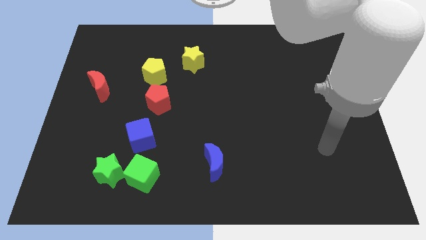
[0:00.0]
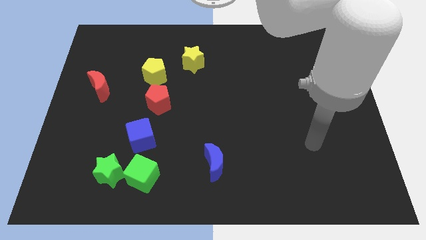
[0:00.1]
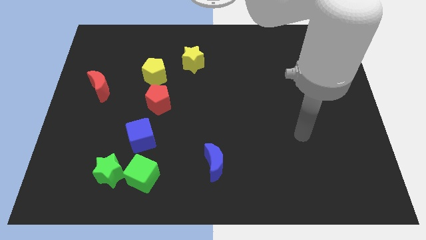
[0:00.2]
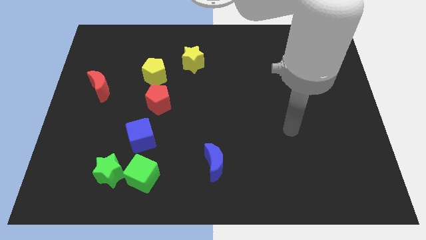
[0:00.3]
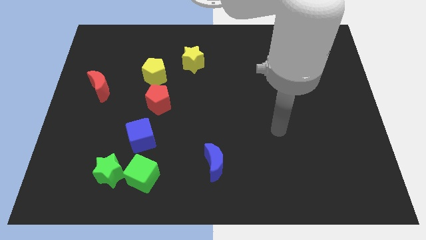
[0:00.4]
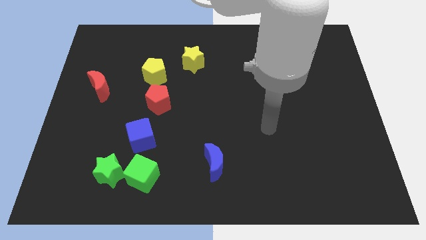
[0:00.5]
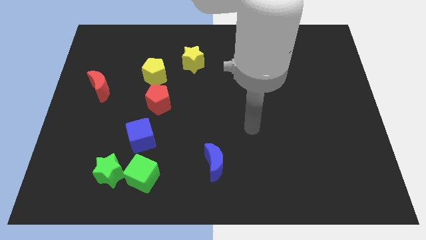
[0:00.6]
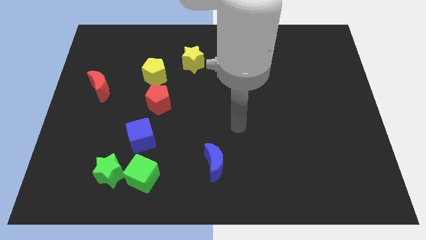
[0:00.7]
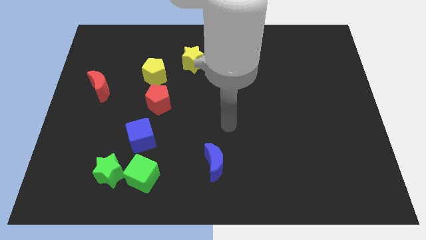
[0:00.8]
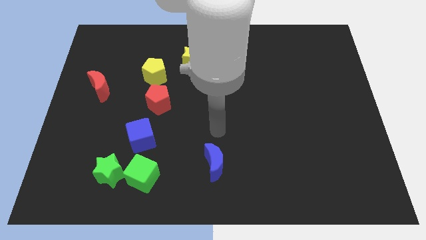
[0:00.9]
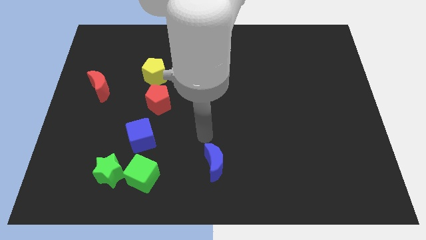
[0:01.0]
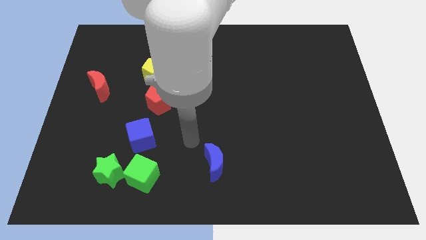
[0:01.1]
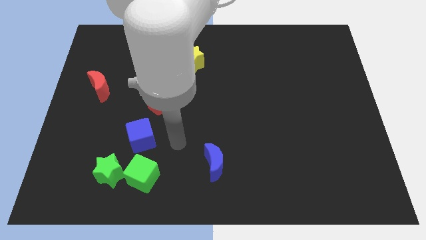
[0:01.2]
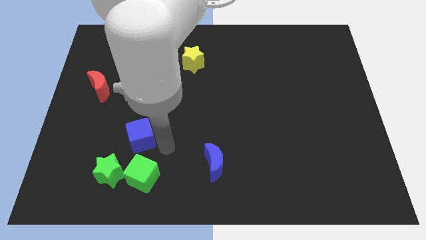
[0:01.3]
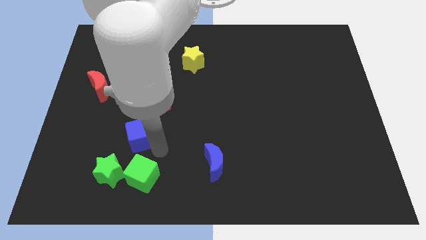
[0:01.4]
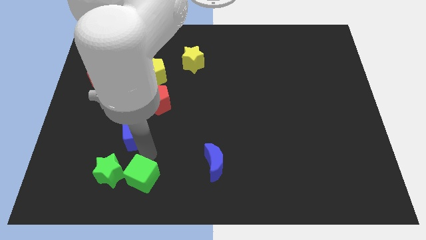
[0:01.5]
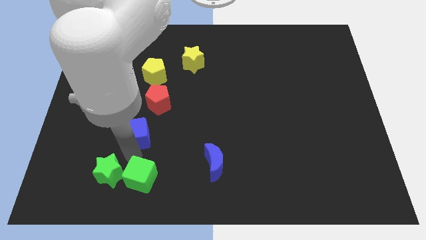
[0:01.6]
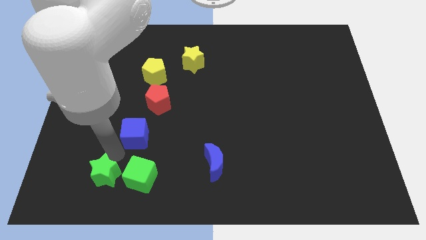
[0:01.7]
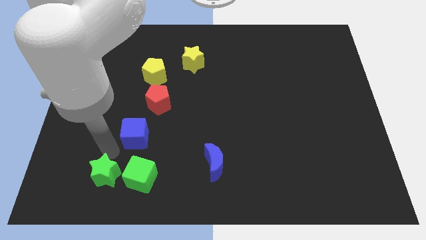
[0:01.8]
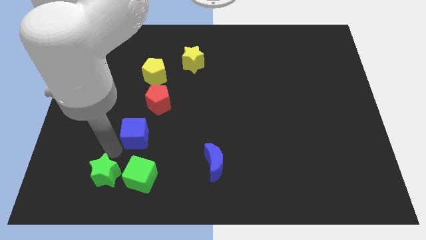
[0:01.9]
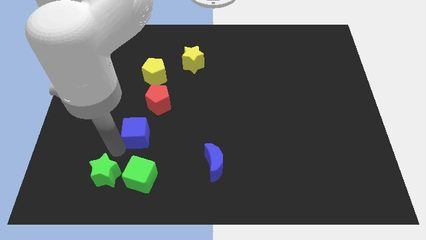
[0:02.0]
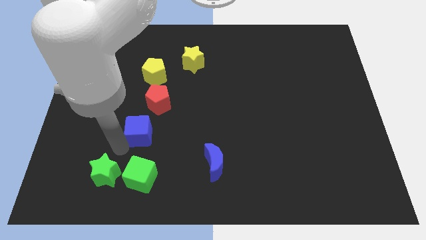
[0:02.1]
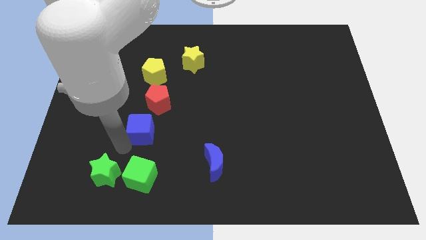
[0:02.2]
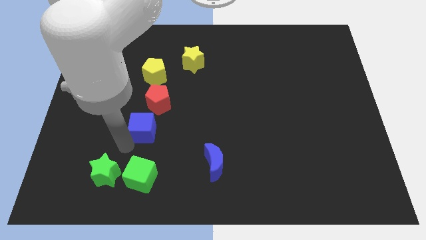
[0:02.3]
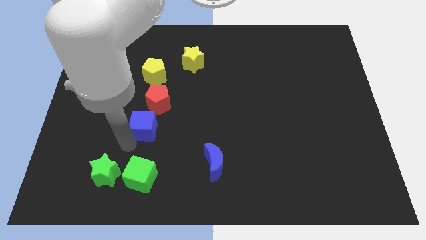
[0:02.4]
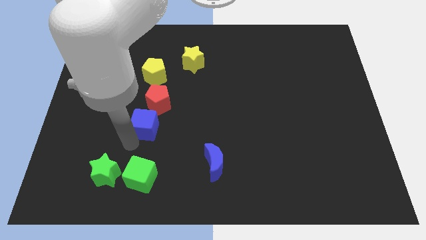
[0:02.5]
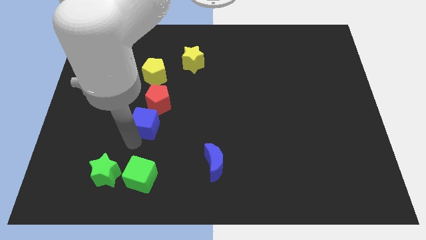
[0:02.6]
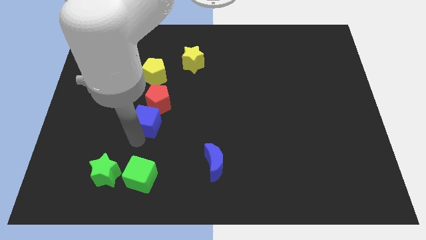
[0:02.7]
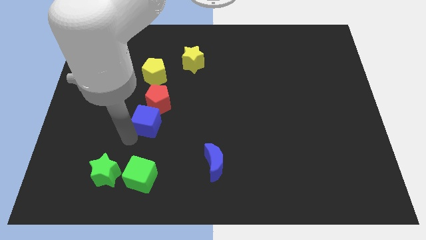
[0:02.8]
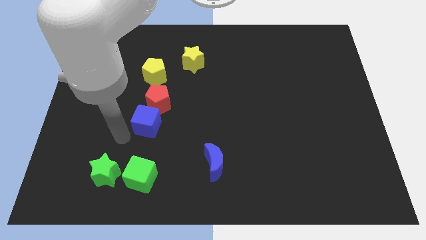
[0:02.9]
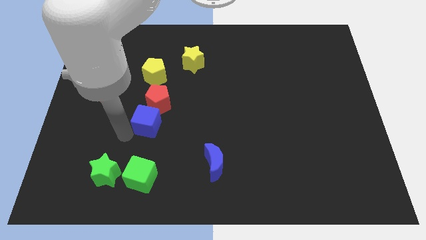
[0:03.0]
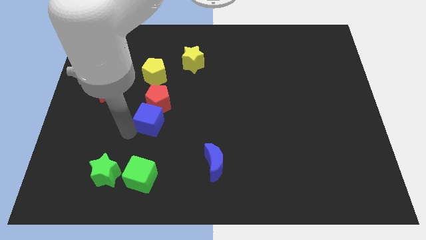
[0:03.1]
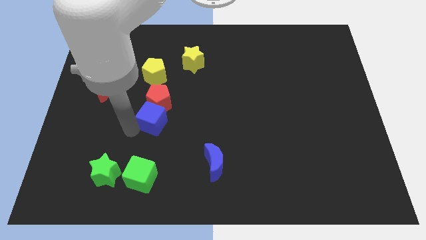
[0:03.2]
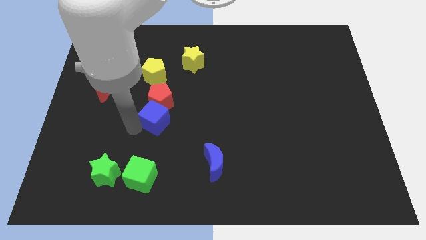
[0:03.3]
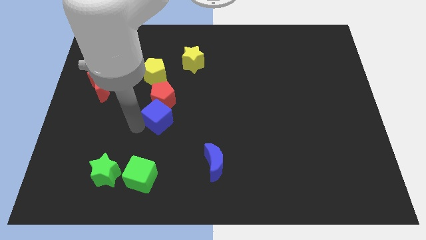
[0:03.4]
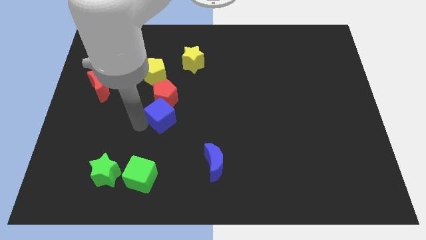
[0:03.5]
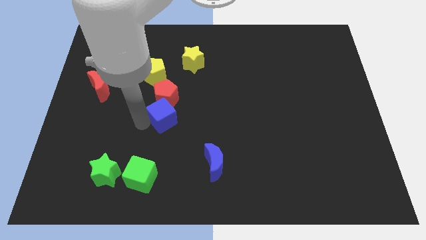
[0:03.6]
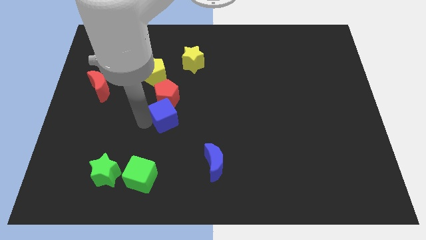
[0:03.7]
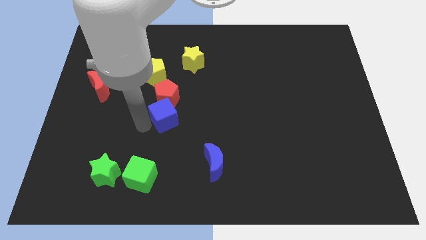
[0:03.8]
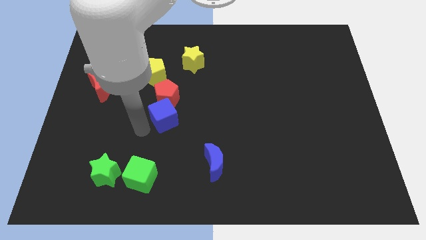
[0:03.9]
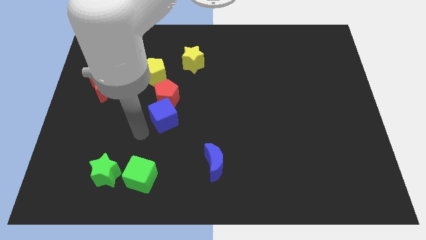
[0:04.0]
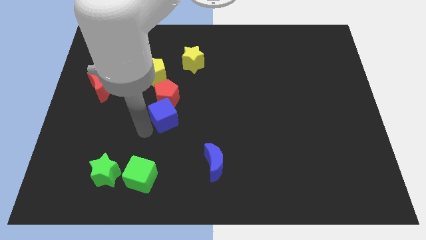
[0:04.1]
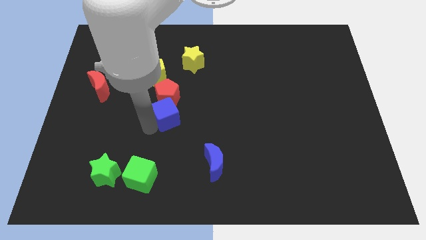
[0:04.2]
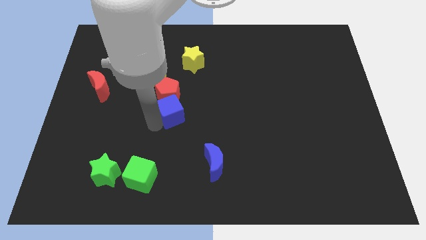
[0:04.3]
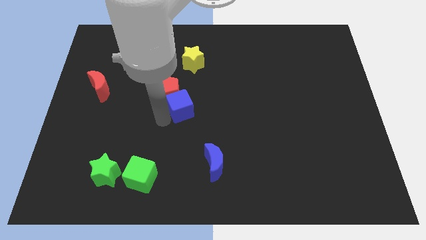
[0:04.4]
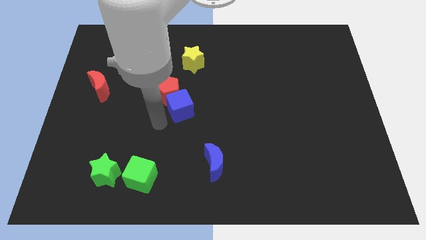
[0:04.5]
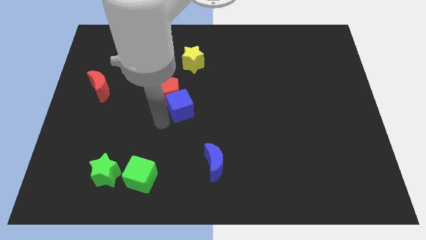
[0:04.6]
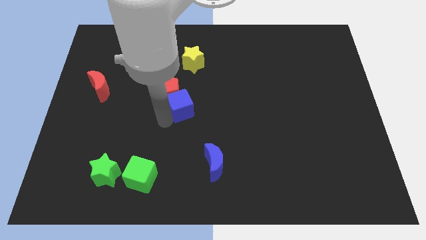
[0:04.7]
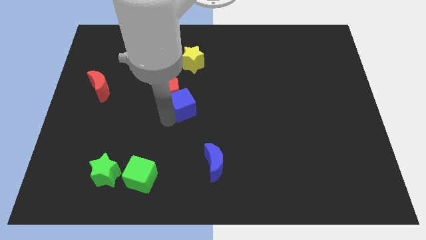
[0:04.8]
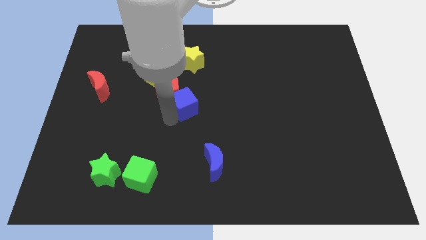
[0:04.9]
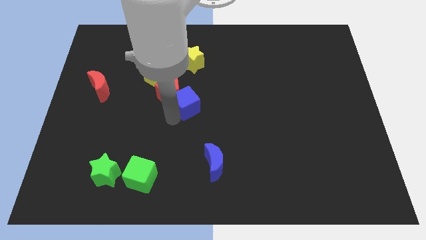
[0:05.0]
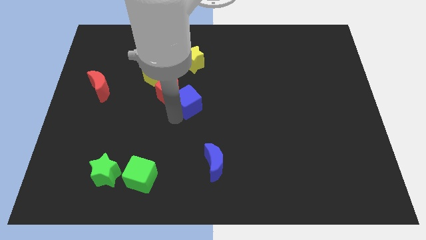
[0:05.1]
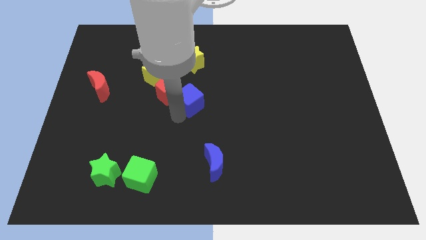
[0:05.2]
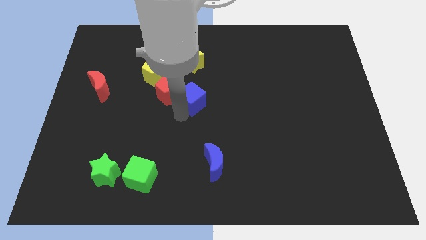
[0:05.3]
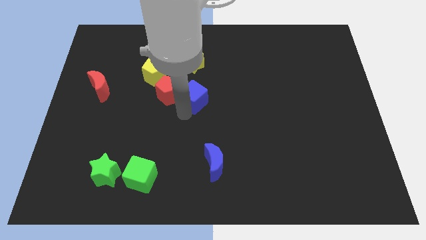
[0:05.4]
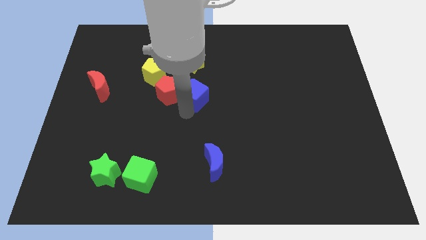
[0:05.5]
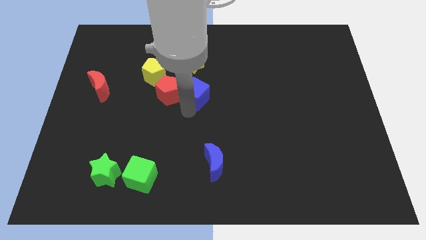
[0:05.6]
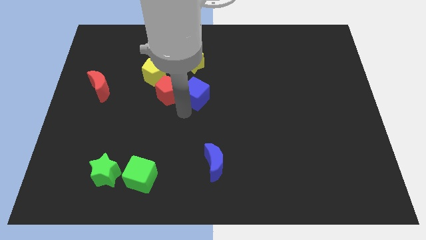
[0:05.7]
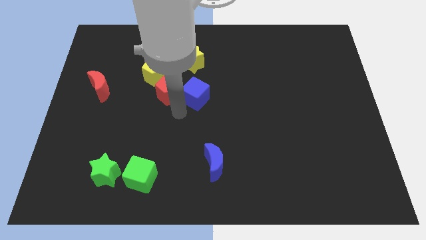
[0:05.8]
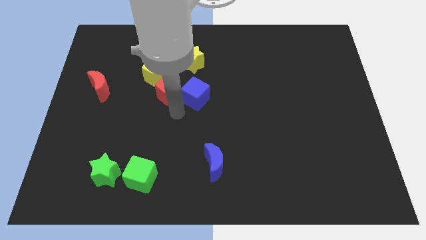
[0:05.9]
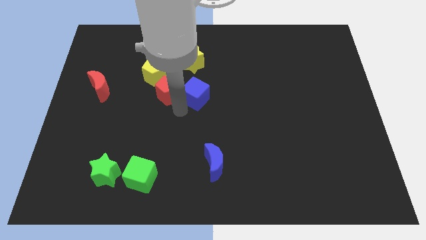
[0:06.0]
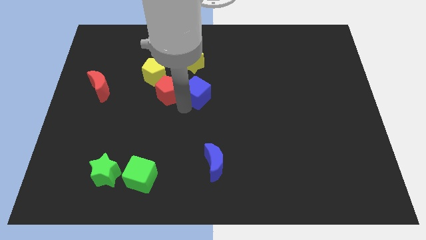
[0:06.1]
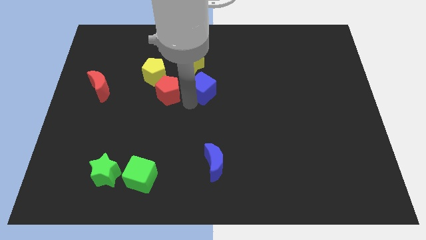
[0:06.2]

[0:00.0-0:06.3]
push the blue cube to the bottom right of the yellow star

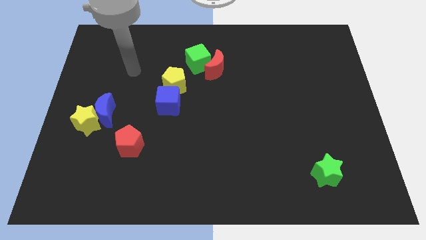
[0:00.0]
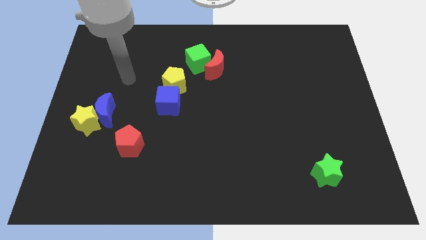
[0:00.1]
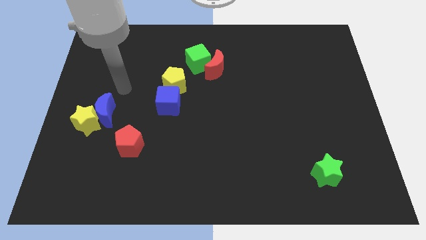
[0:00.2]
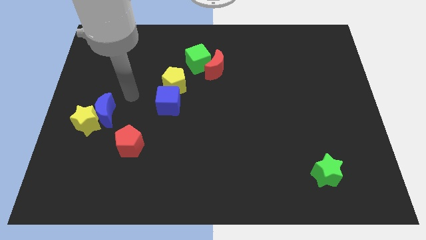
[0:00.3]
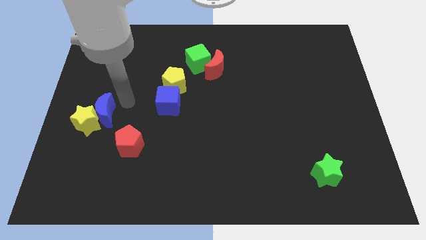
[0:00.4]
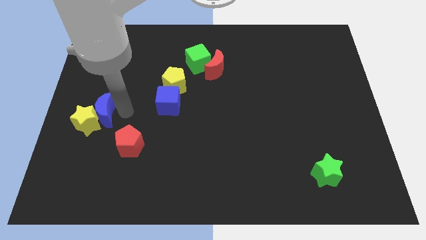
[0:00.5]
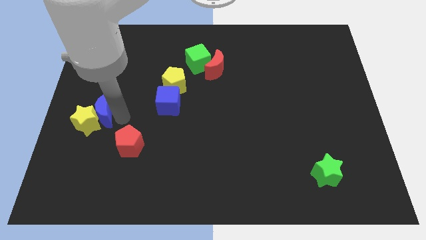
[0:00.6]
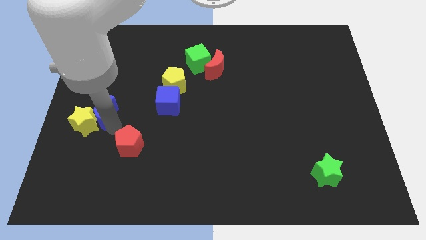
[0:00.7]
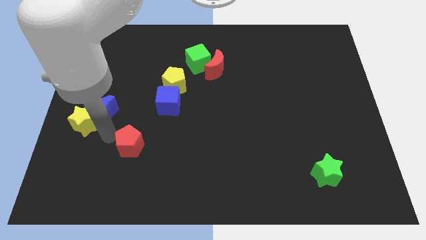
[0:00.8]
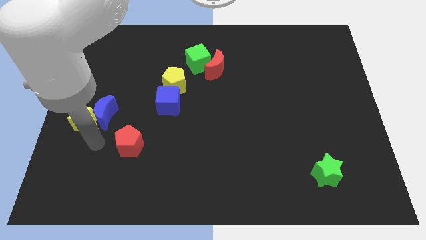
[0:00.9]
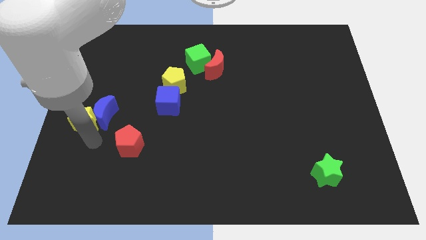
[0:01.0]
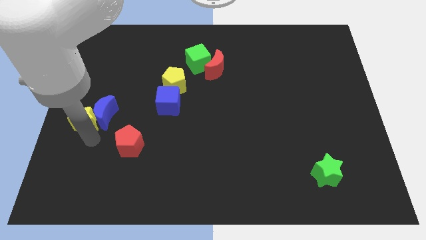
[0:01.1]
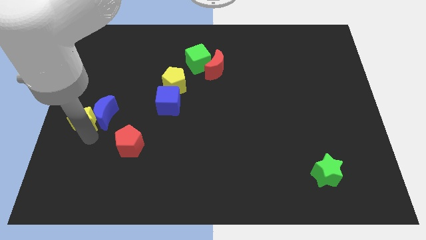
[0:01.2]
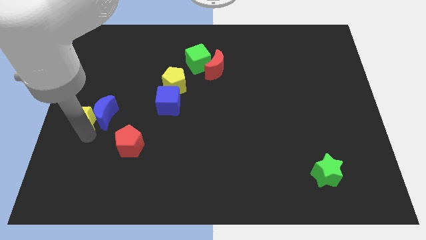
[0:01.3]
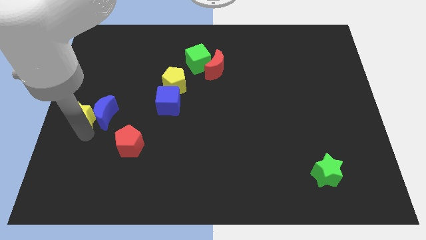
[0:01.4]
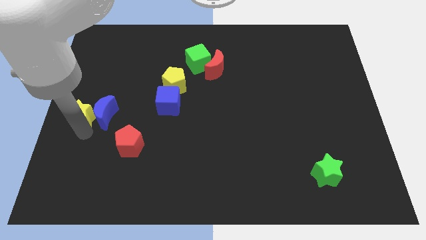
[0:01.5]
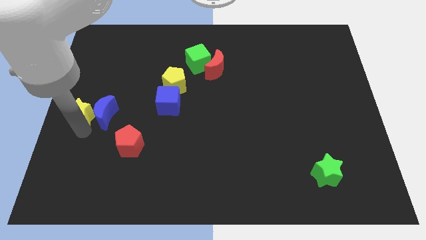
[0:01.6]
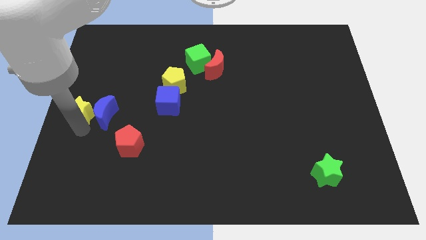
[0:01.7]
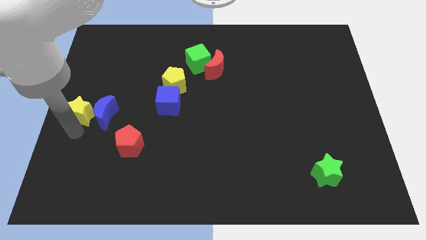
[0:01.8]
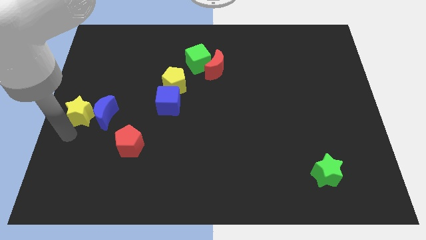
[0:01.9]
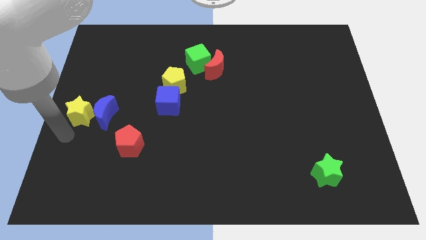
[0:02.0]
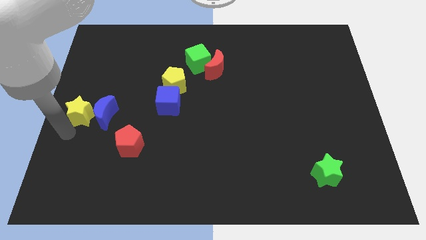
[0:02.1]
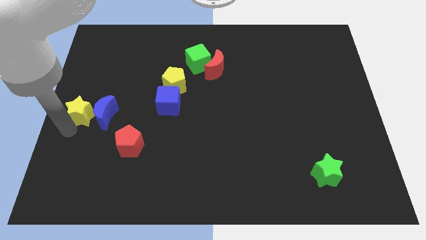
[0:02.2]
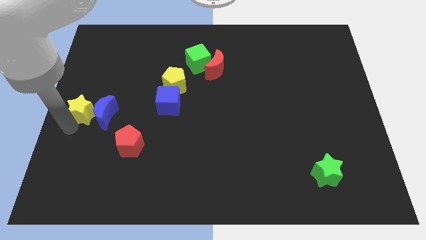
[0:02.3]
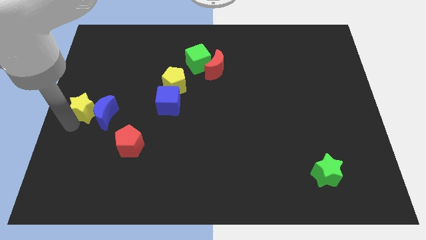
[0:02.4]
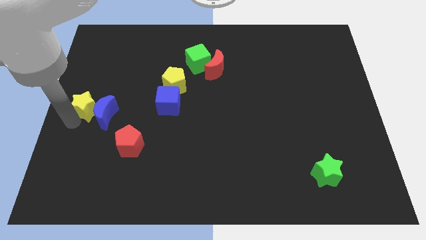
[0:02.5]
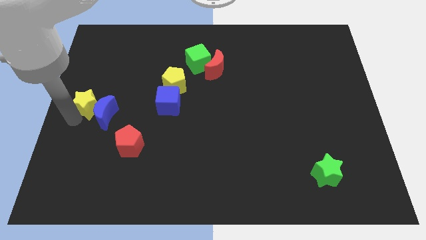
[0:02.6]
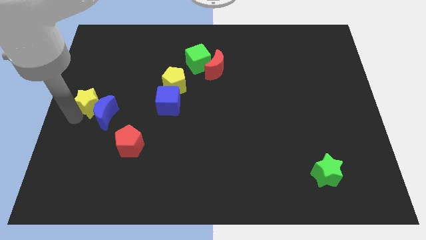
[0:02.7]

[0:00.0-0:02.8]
push the yellow star to the top of the blue moon
